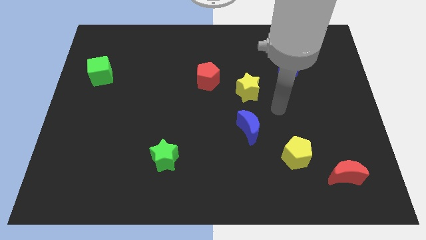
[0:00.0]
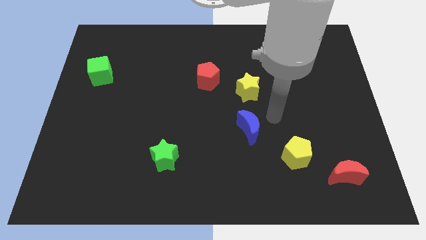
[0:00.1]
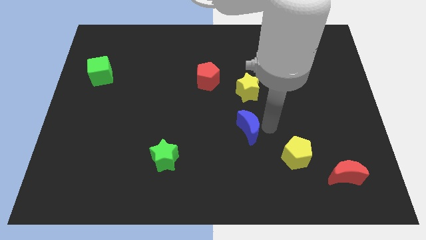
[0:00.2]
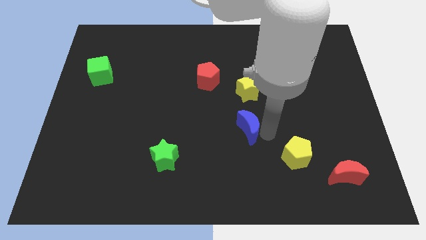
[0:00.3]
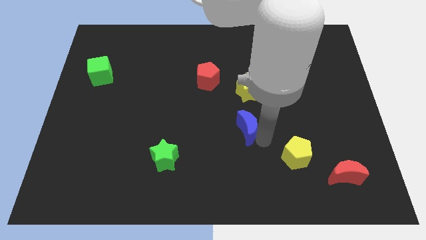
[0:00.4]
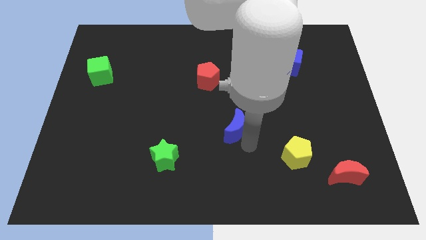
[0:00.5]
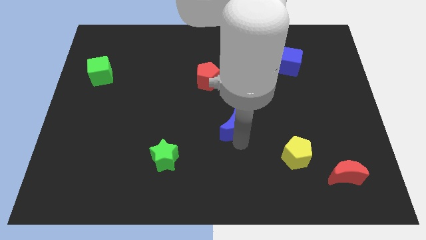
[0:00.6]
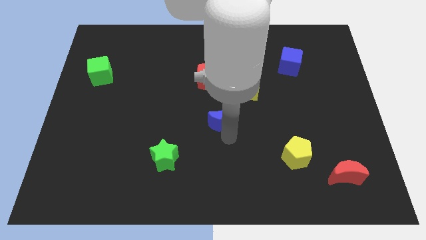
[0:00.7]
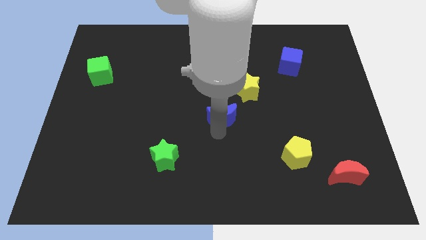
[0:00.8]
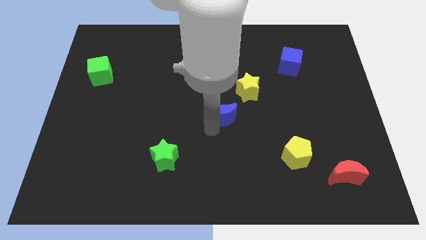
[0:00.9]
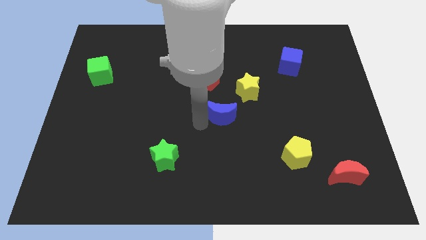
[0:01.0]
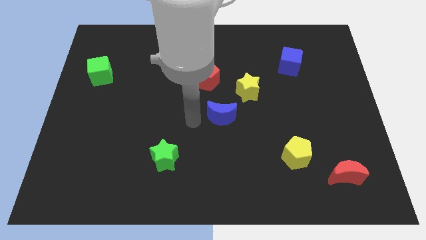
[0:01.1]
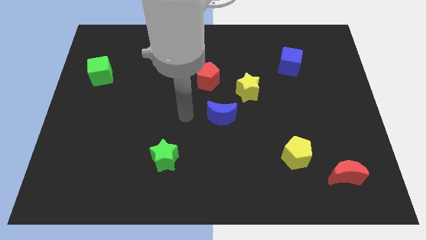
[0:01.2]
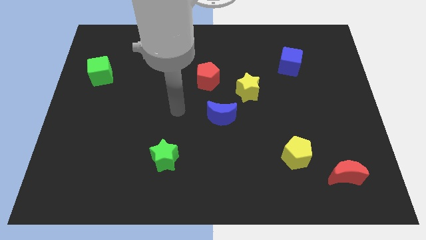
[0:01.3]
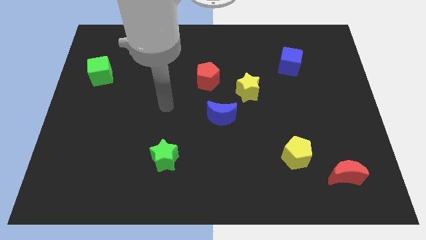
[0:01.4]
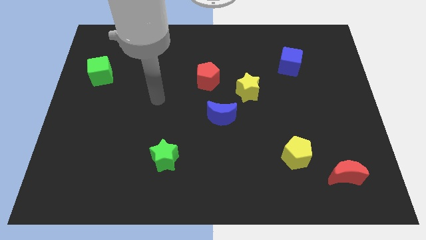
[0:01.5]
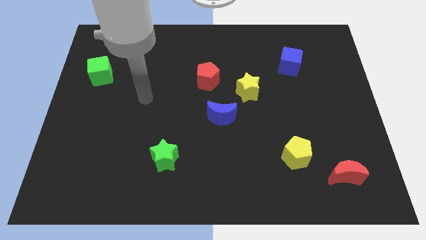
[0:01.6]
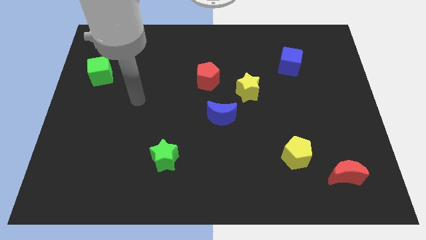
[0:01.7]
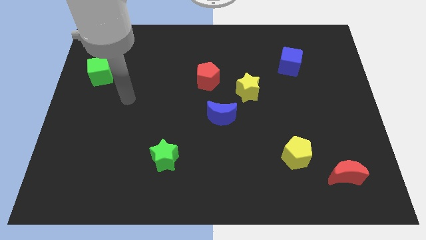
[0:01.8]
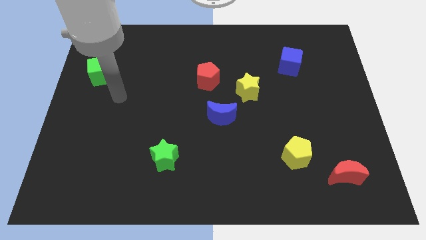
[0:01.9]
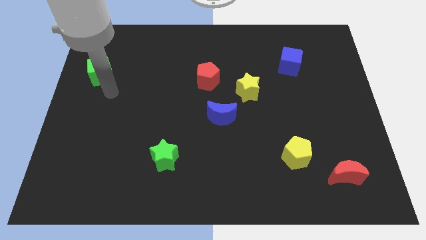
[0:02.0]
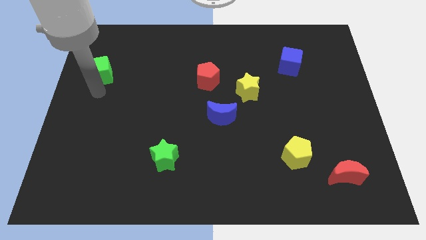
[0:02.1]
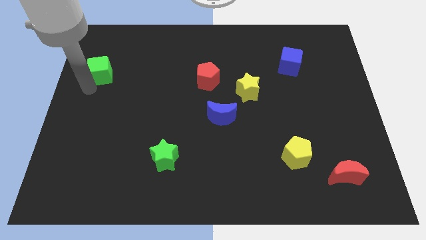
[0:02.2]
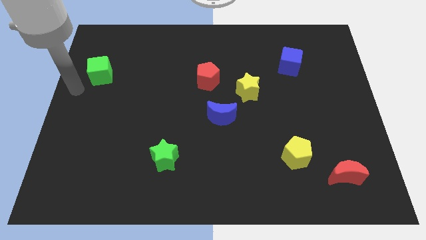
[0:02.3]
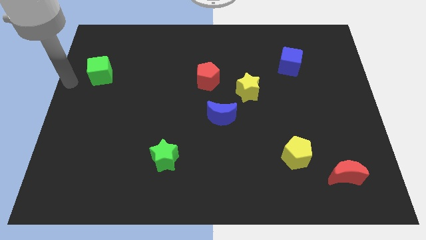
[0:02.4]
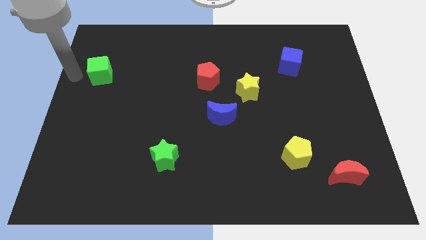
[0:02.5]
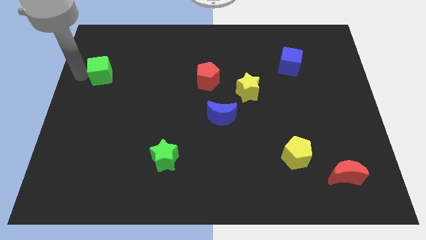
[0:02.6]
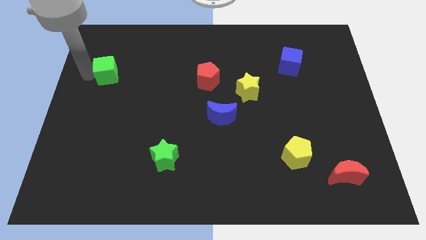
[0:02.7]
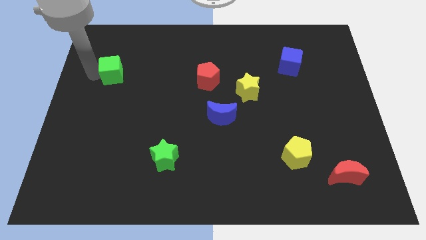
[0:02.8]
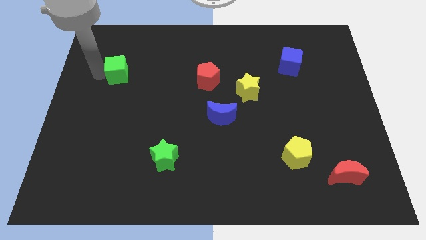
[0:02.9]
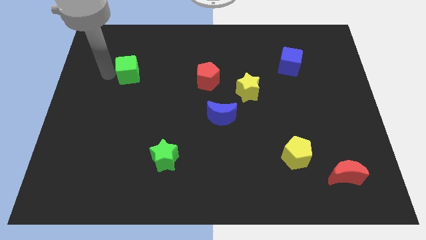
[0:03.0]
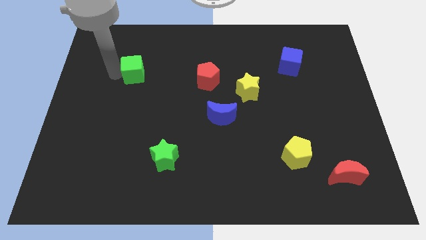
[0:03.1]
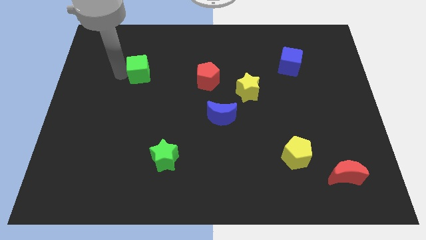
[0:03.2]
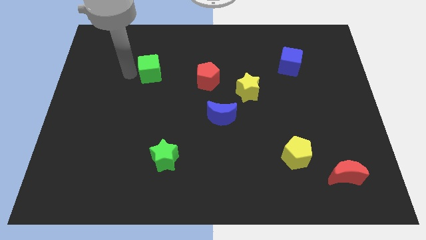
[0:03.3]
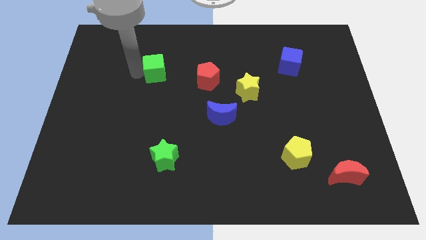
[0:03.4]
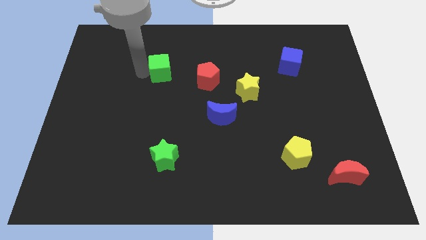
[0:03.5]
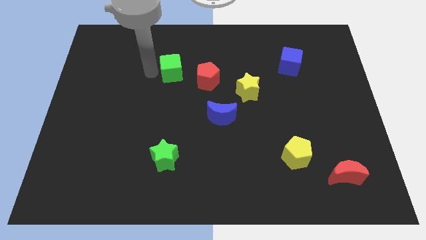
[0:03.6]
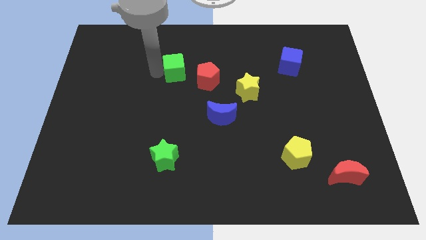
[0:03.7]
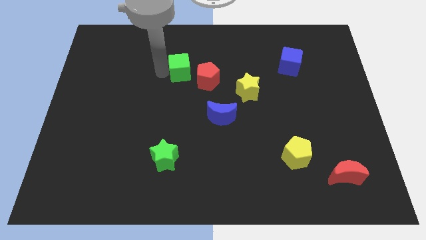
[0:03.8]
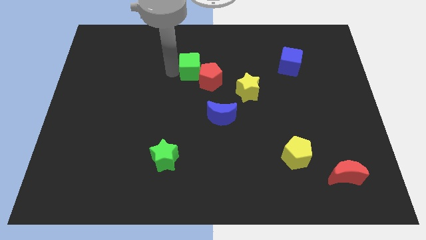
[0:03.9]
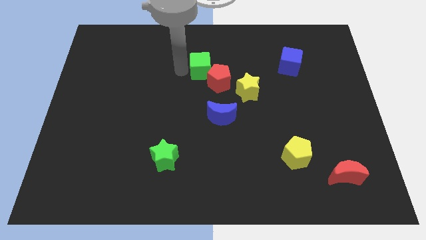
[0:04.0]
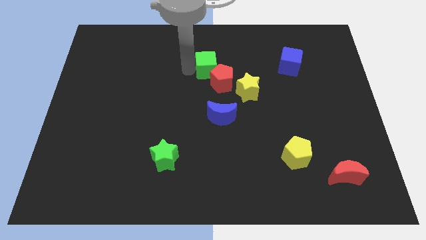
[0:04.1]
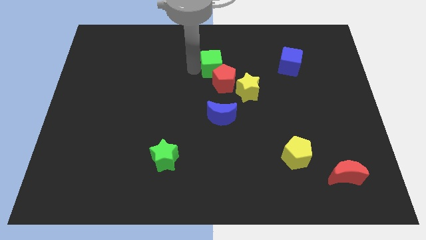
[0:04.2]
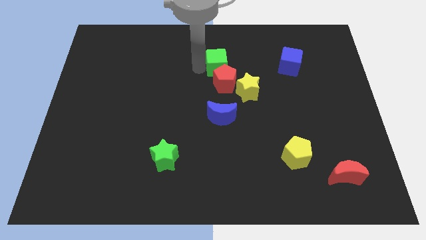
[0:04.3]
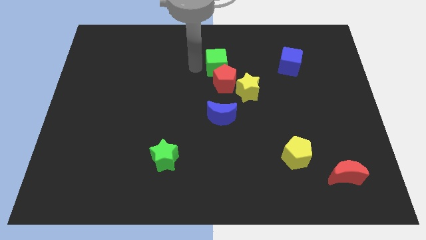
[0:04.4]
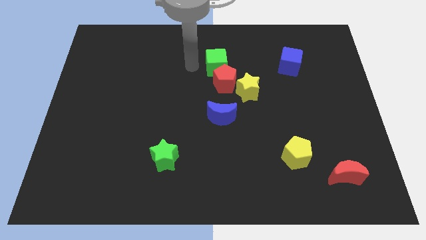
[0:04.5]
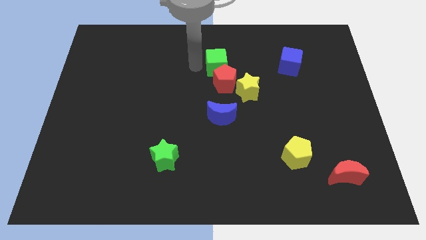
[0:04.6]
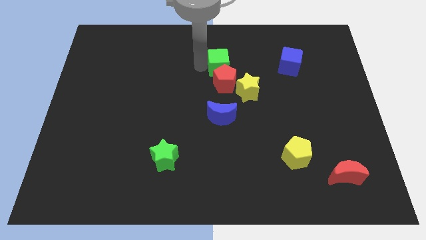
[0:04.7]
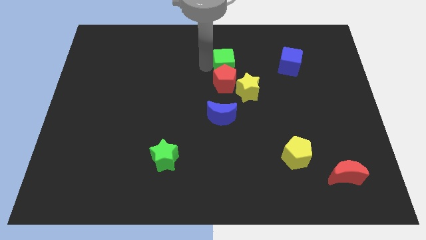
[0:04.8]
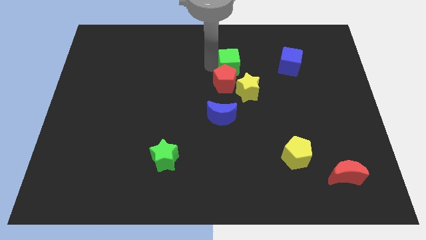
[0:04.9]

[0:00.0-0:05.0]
push the green cube to the left of the blue cube

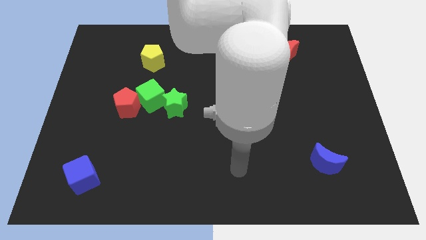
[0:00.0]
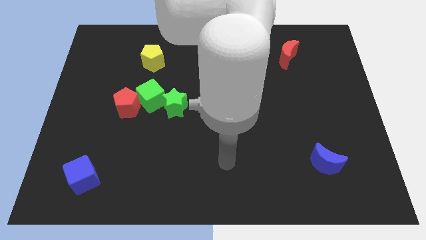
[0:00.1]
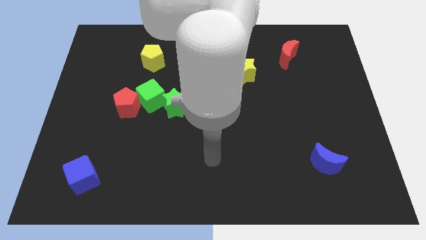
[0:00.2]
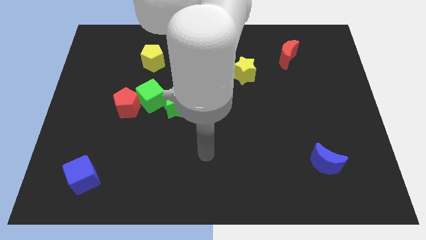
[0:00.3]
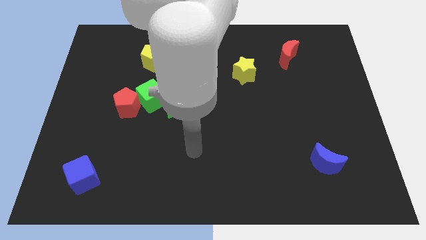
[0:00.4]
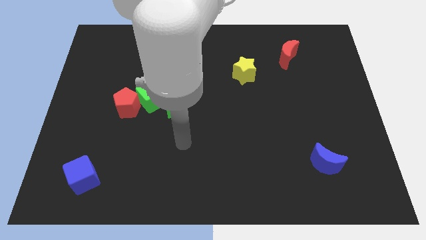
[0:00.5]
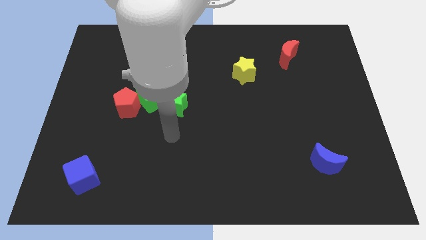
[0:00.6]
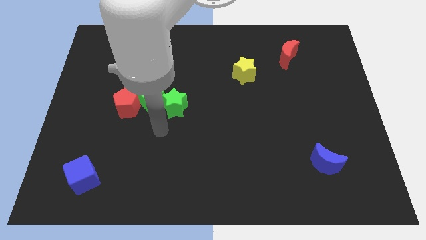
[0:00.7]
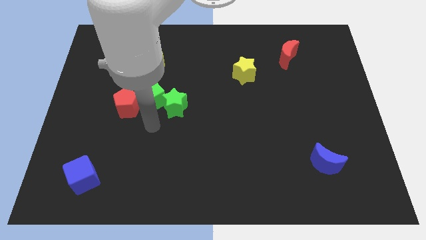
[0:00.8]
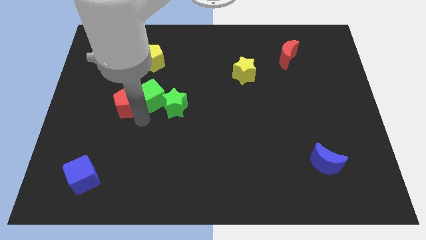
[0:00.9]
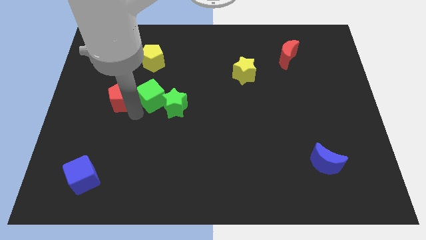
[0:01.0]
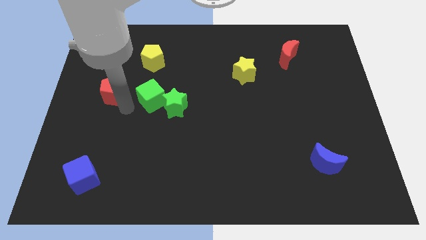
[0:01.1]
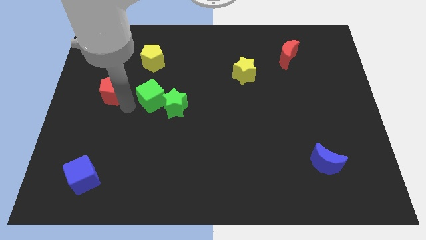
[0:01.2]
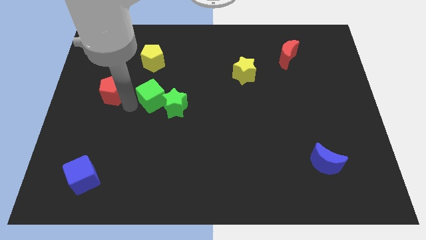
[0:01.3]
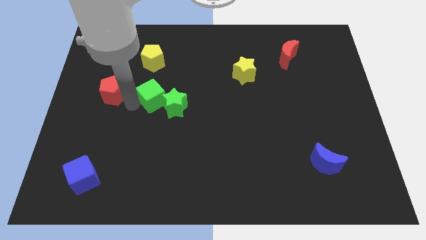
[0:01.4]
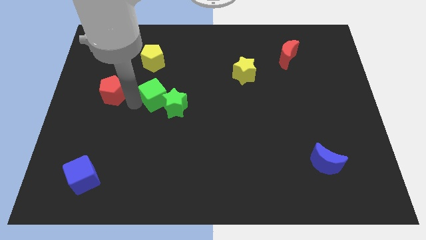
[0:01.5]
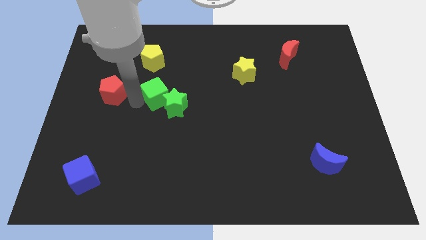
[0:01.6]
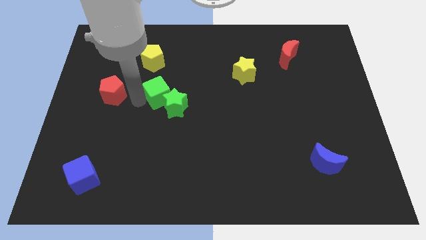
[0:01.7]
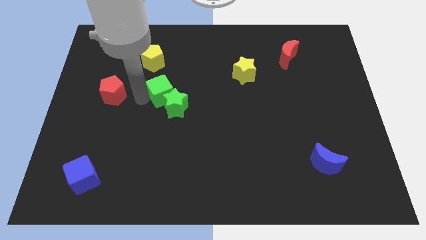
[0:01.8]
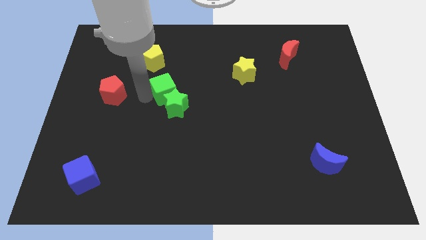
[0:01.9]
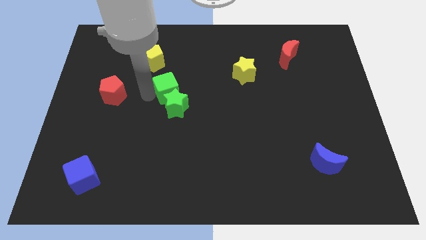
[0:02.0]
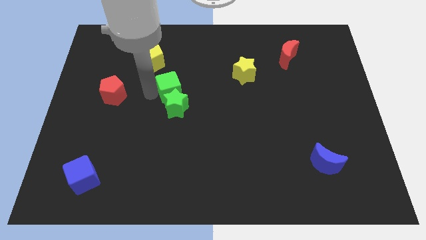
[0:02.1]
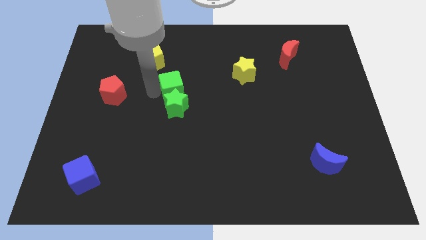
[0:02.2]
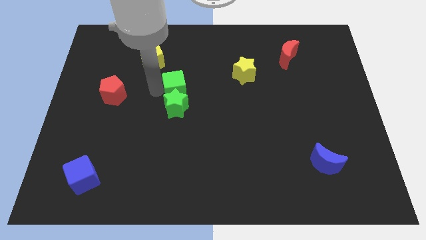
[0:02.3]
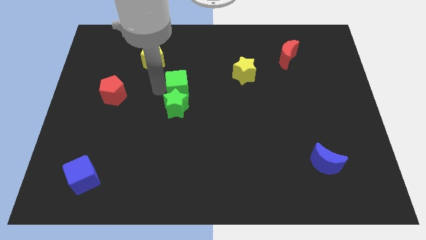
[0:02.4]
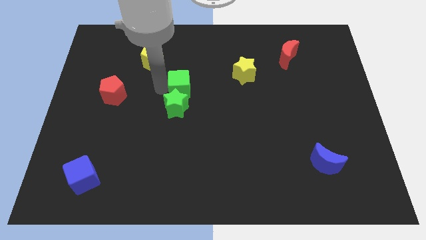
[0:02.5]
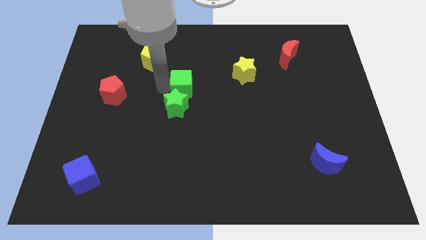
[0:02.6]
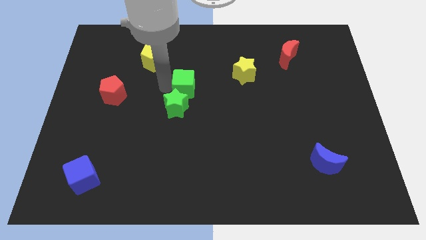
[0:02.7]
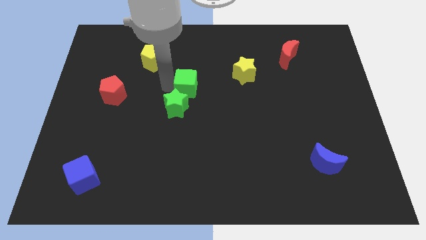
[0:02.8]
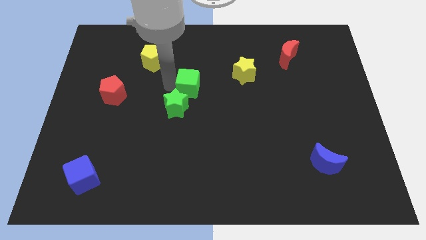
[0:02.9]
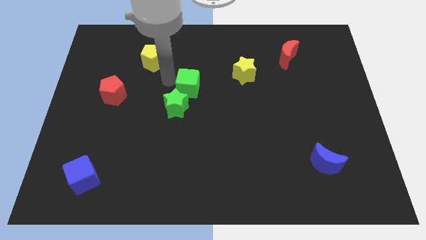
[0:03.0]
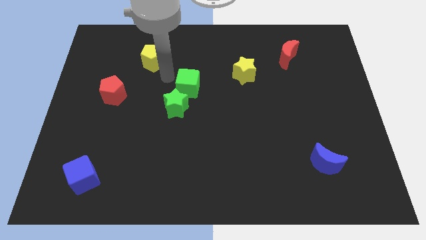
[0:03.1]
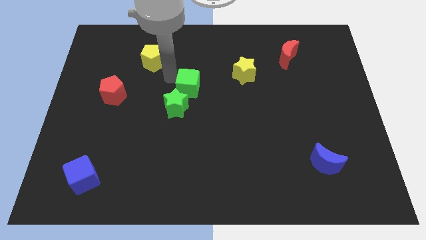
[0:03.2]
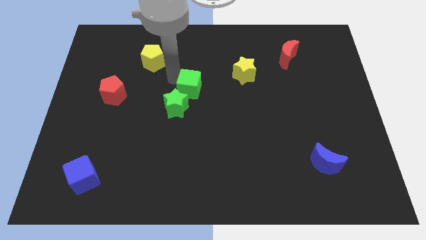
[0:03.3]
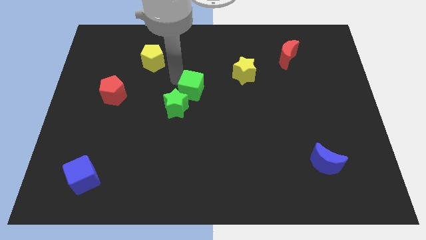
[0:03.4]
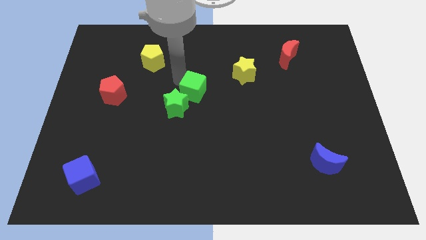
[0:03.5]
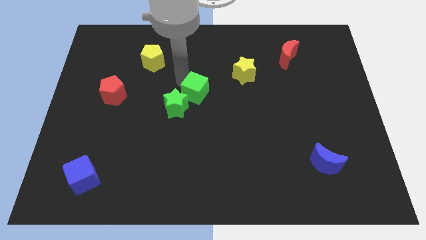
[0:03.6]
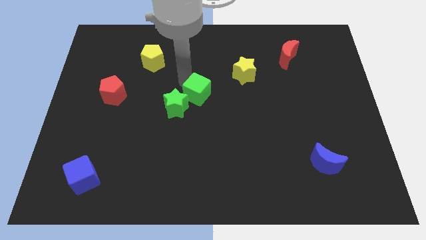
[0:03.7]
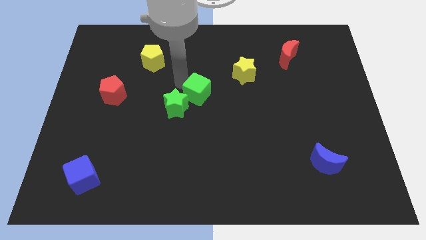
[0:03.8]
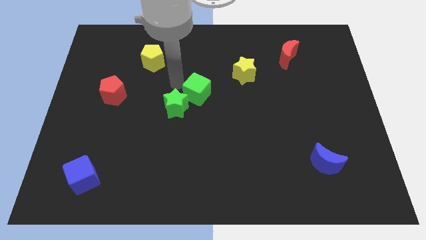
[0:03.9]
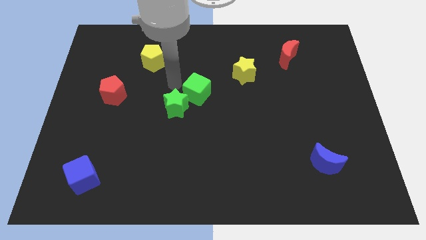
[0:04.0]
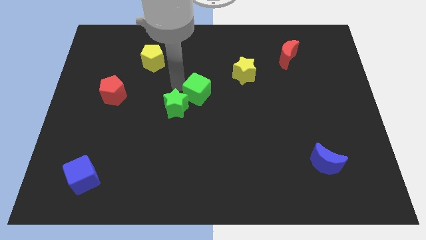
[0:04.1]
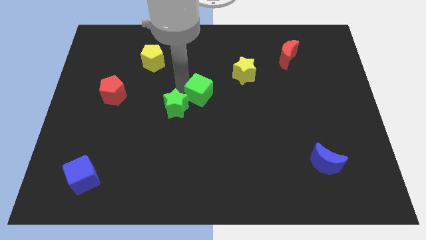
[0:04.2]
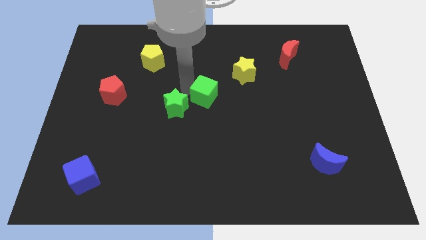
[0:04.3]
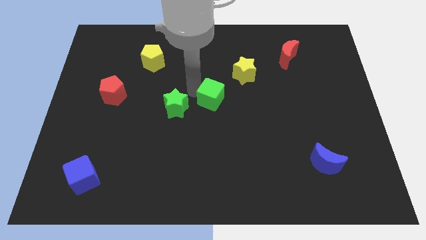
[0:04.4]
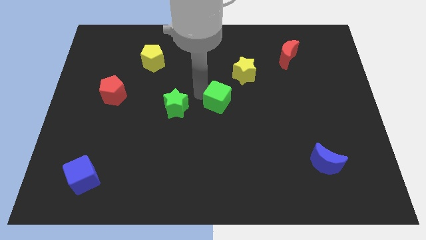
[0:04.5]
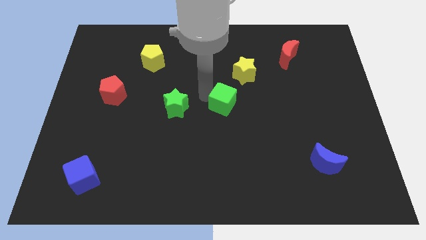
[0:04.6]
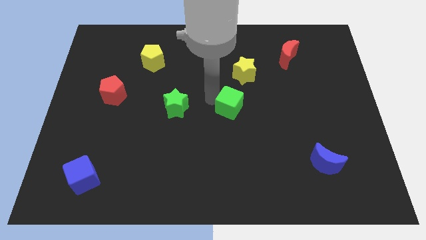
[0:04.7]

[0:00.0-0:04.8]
push the green cube to the bottom side of the yellow star
